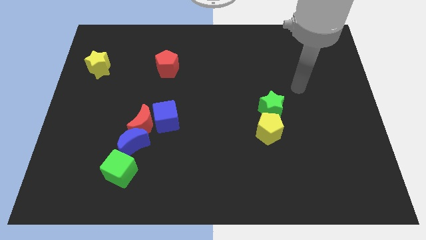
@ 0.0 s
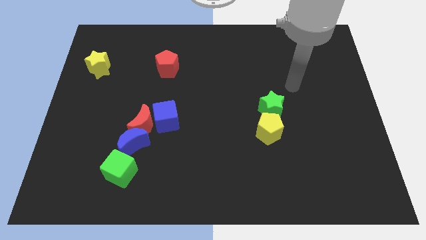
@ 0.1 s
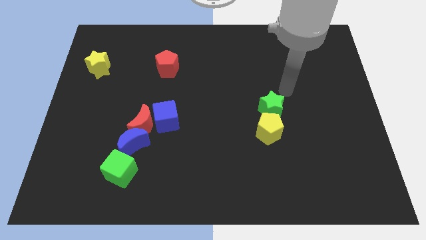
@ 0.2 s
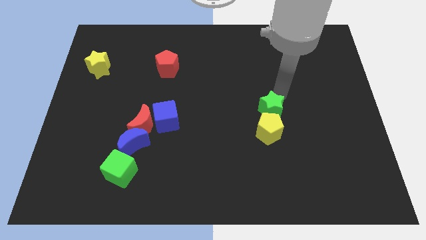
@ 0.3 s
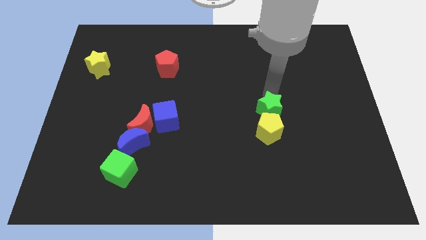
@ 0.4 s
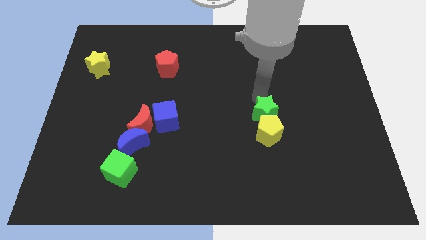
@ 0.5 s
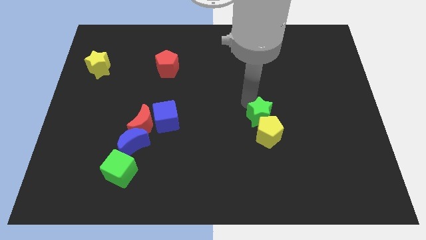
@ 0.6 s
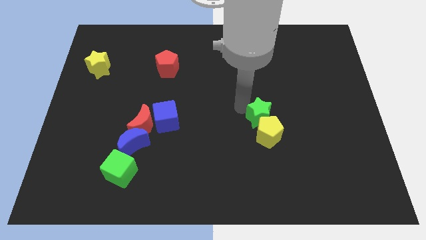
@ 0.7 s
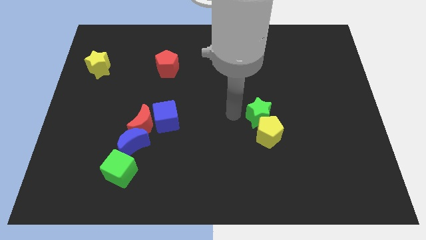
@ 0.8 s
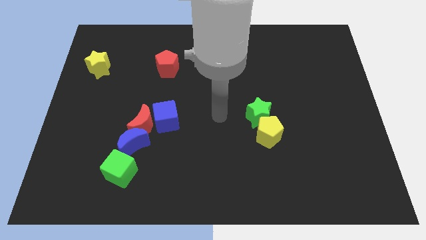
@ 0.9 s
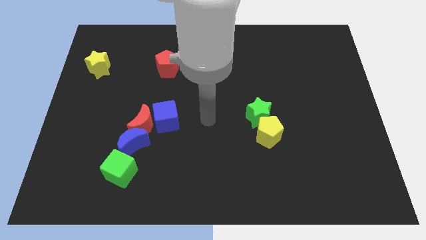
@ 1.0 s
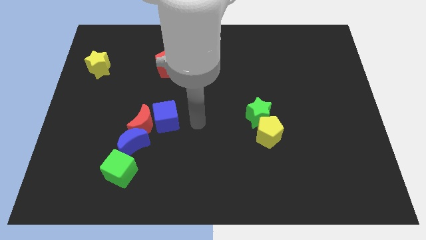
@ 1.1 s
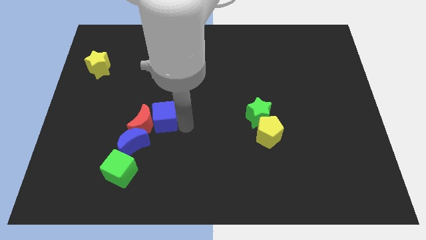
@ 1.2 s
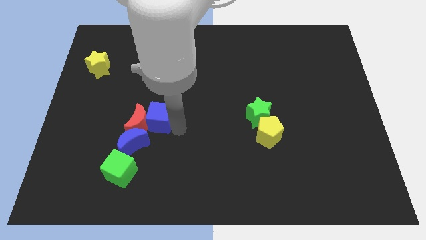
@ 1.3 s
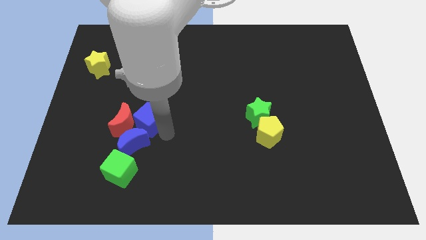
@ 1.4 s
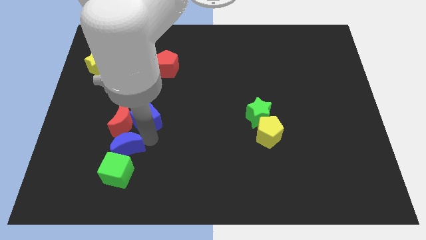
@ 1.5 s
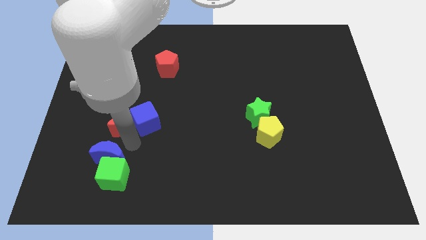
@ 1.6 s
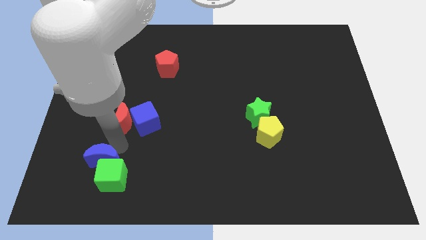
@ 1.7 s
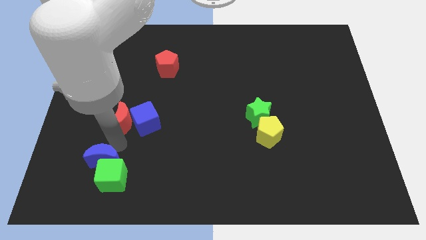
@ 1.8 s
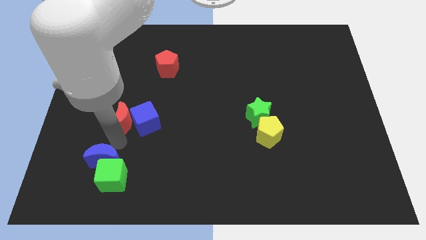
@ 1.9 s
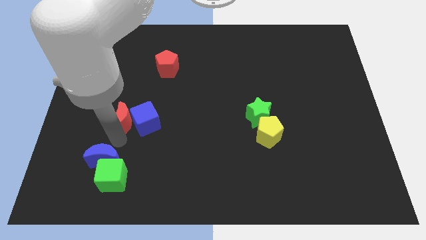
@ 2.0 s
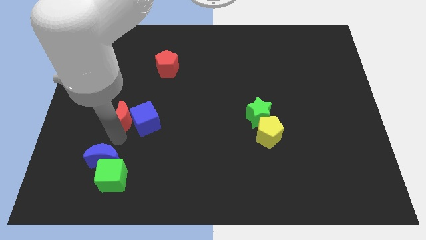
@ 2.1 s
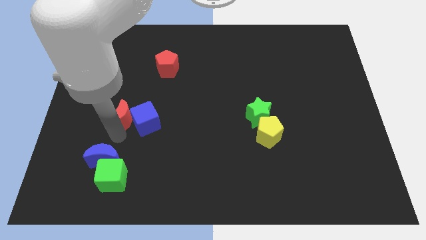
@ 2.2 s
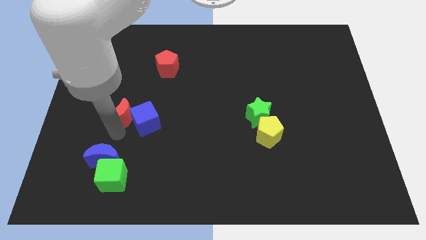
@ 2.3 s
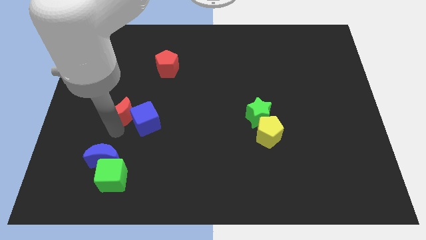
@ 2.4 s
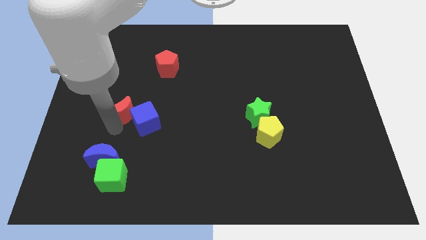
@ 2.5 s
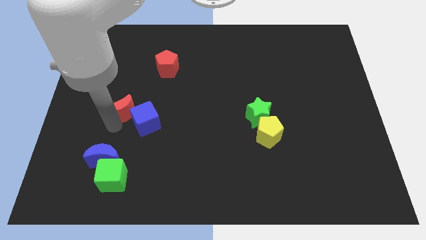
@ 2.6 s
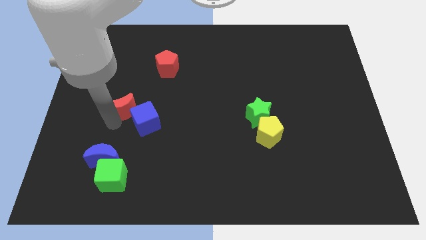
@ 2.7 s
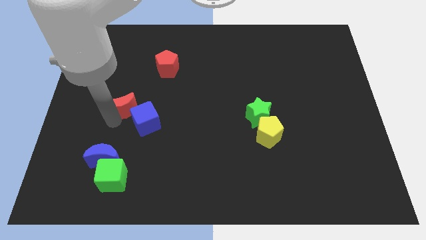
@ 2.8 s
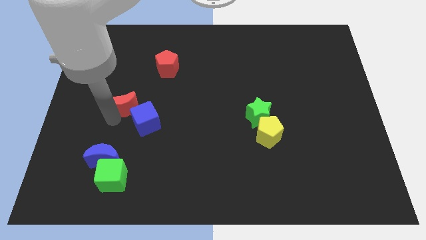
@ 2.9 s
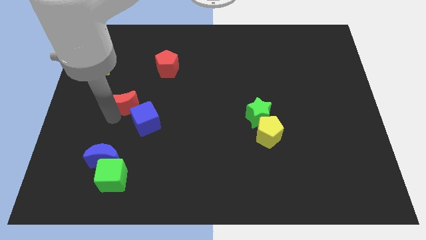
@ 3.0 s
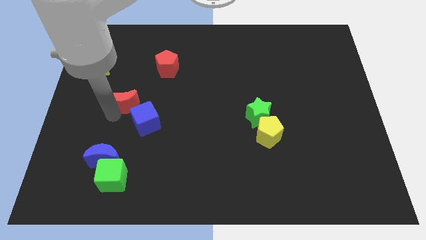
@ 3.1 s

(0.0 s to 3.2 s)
move the red moon away from the blue moon and blue cube

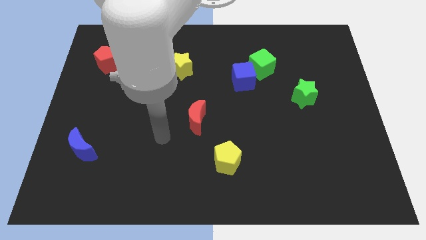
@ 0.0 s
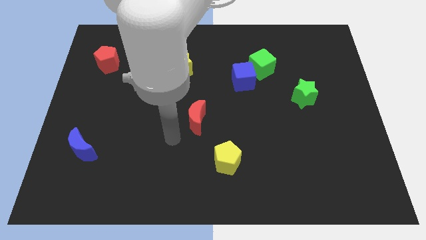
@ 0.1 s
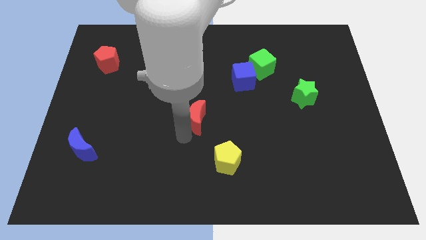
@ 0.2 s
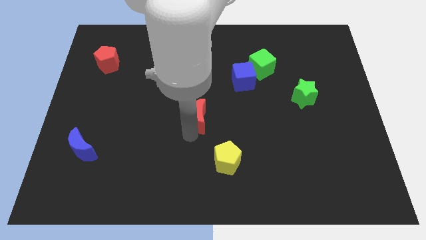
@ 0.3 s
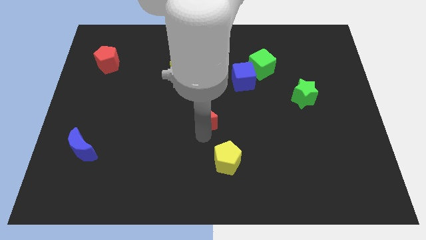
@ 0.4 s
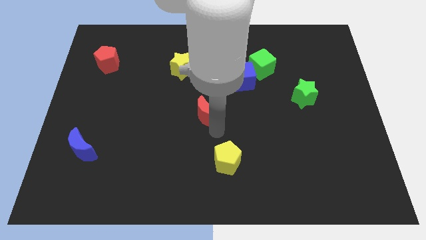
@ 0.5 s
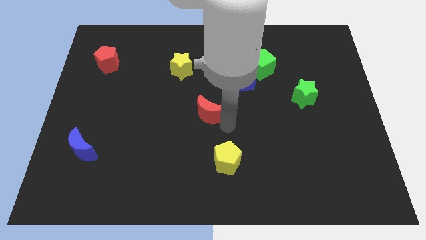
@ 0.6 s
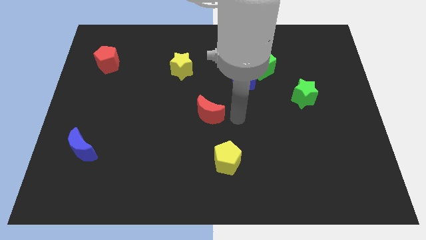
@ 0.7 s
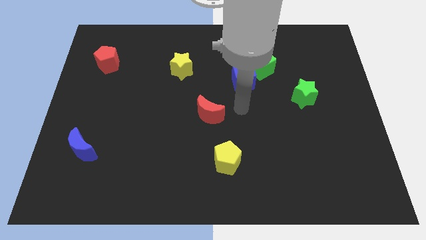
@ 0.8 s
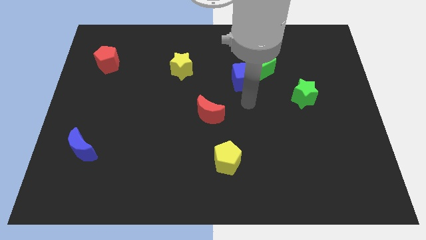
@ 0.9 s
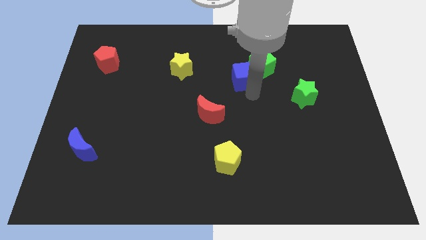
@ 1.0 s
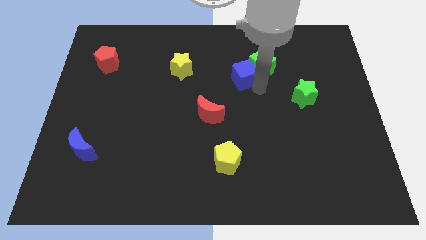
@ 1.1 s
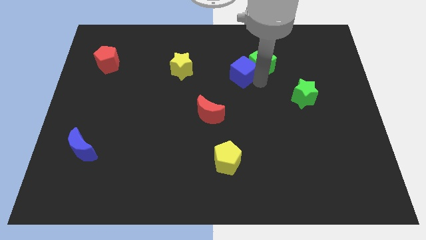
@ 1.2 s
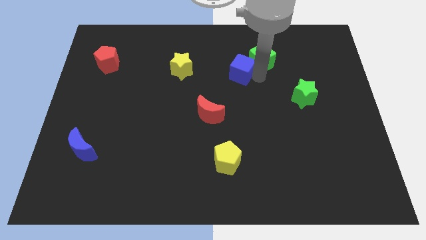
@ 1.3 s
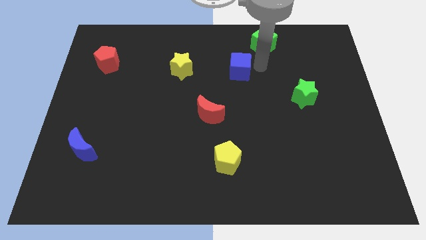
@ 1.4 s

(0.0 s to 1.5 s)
pull the blue cube apart from the green cube

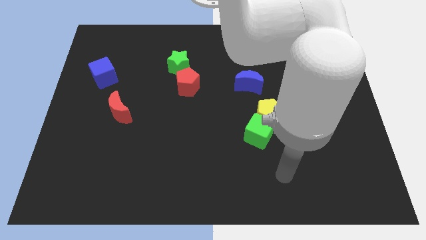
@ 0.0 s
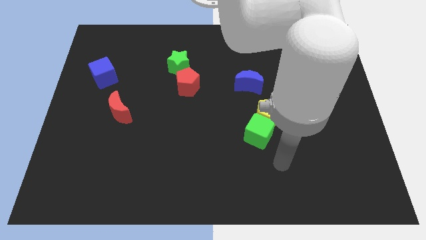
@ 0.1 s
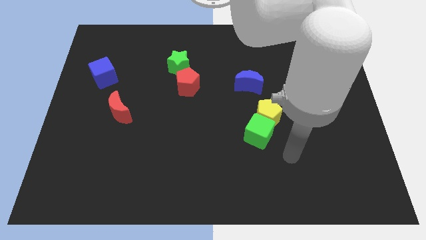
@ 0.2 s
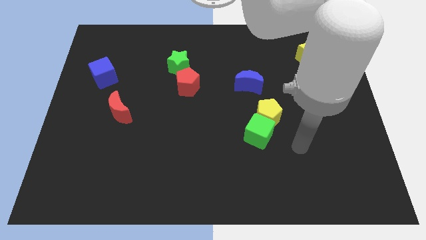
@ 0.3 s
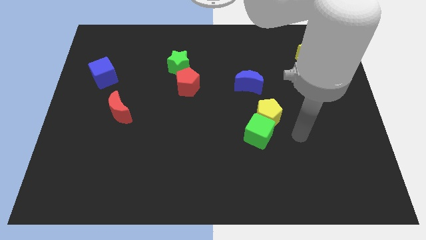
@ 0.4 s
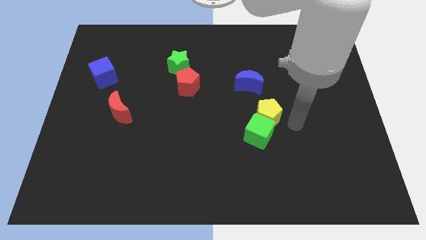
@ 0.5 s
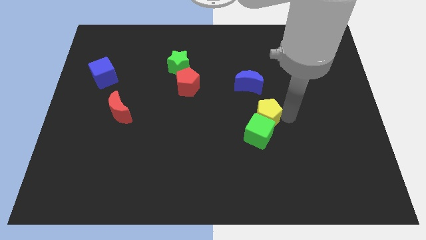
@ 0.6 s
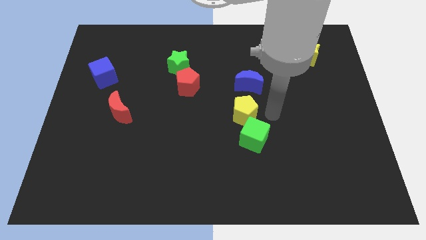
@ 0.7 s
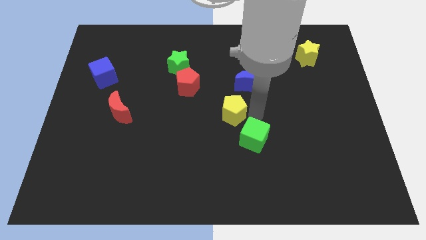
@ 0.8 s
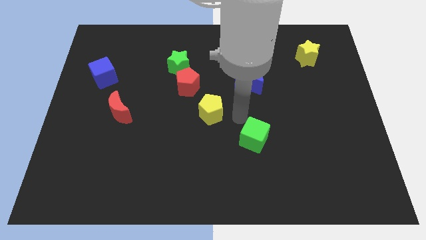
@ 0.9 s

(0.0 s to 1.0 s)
move the green cube away from the yellow pentagon

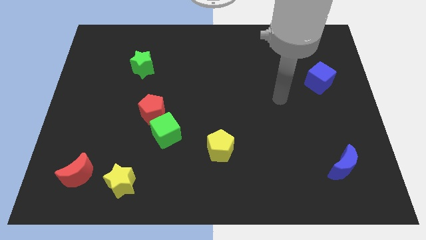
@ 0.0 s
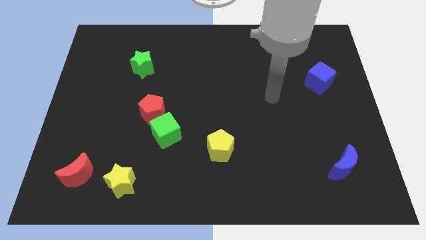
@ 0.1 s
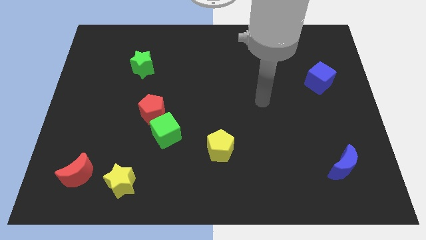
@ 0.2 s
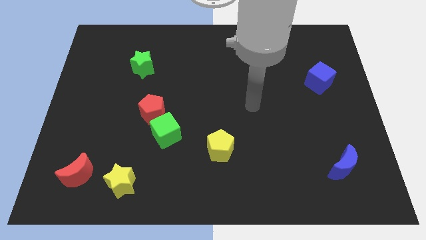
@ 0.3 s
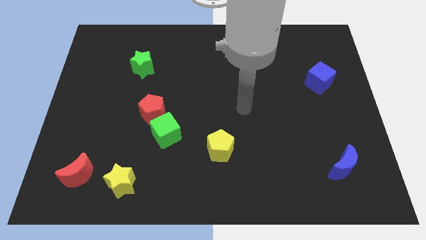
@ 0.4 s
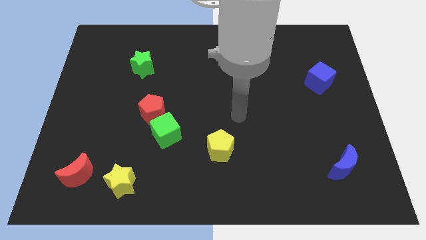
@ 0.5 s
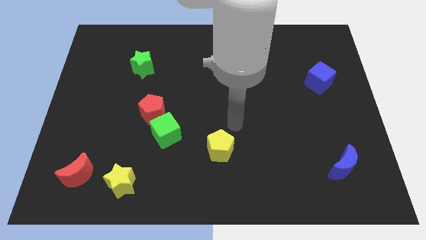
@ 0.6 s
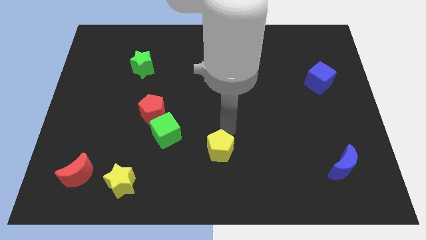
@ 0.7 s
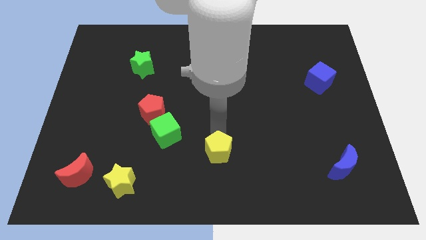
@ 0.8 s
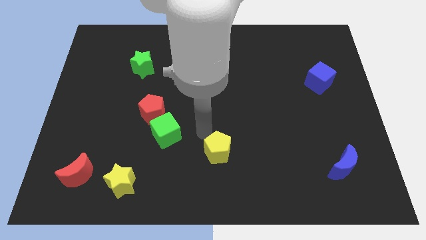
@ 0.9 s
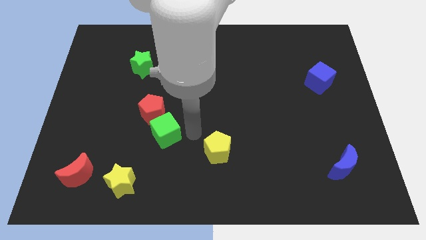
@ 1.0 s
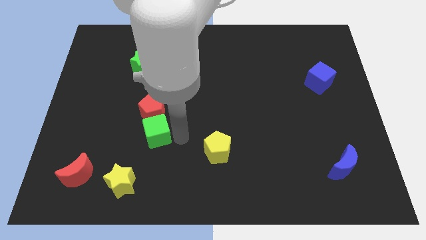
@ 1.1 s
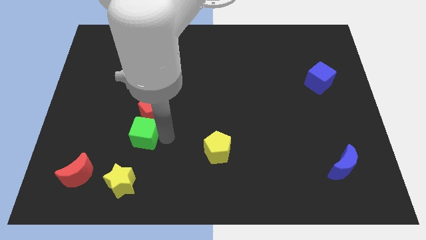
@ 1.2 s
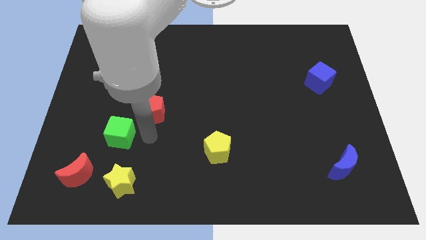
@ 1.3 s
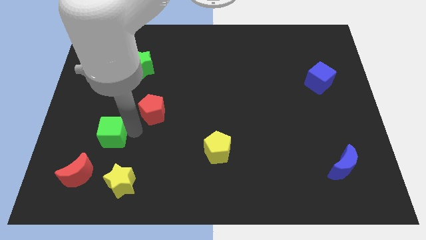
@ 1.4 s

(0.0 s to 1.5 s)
pull the red pentagon apart from the green cube

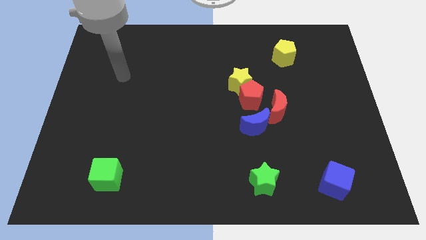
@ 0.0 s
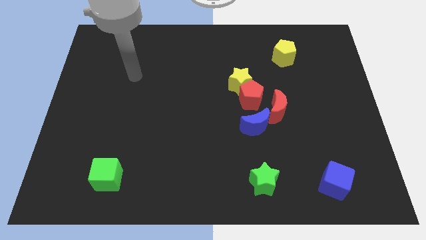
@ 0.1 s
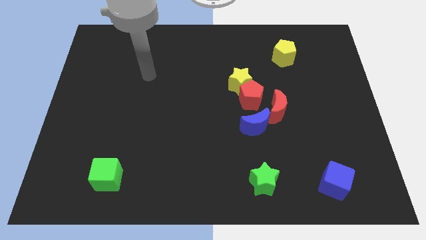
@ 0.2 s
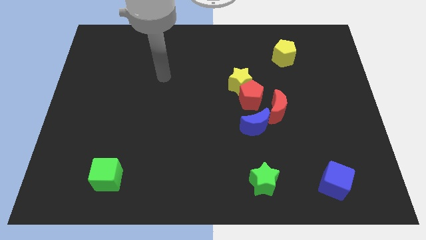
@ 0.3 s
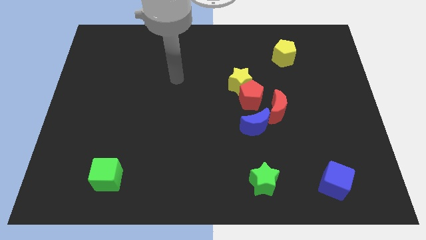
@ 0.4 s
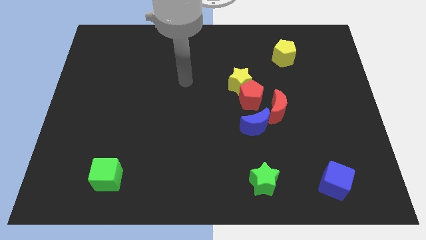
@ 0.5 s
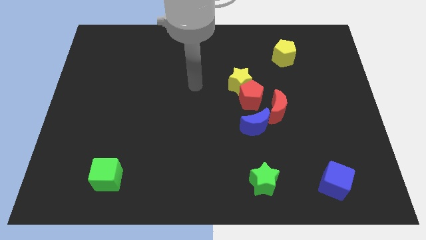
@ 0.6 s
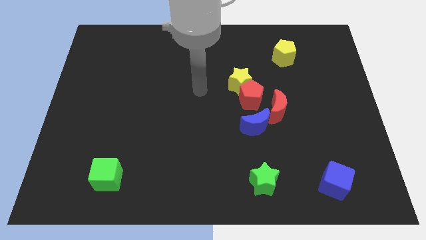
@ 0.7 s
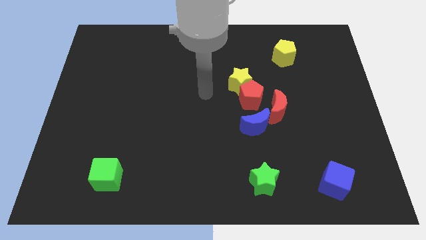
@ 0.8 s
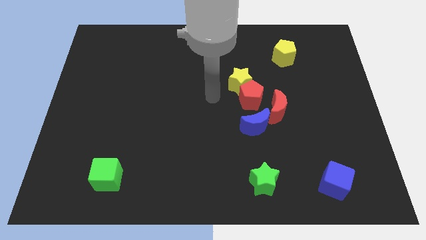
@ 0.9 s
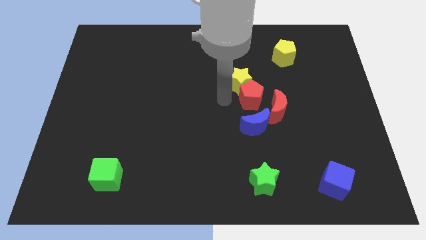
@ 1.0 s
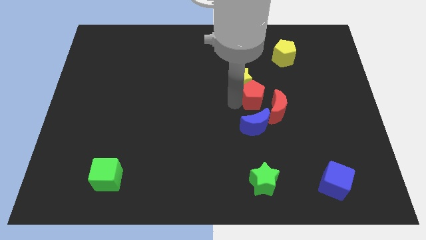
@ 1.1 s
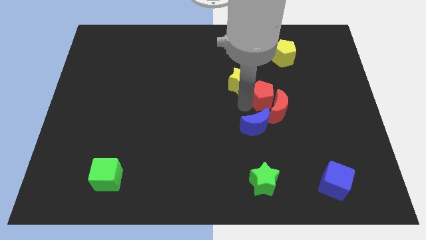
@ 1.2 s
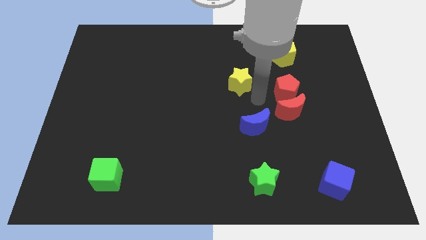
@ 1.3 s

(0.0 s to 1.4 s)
move the yellow star away from the red pentagon

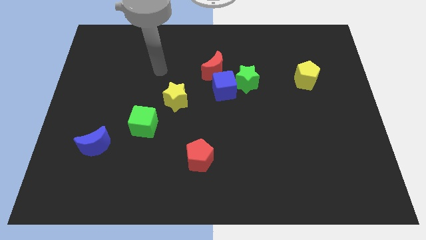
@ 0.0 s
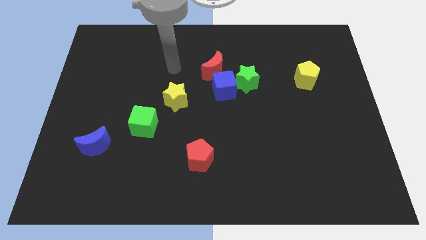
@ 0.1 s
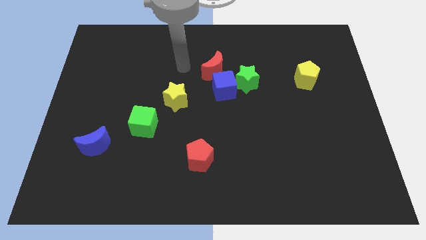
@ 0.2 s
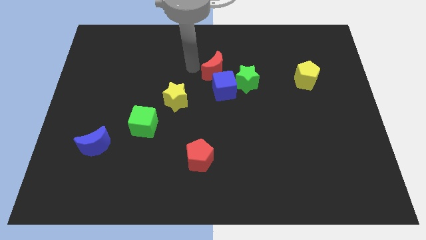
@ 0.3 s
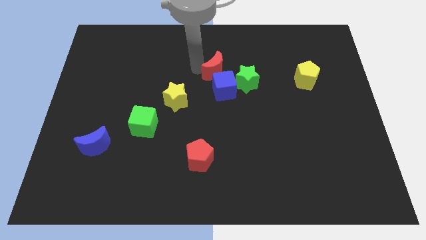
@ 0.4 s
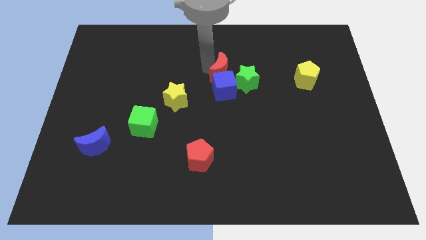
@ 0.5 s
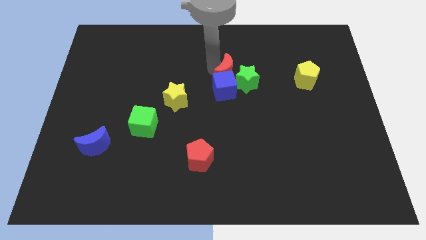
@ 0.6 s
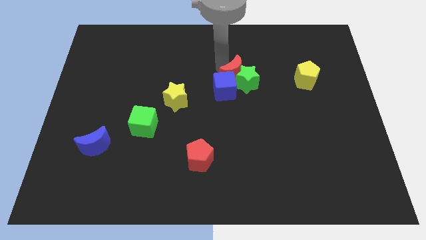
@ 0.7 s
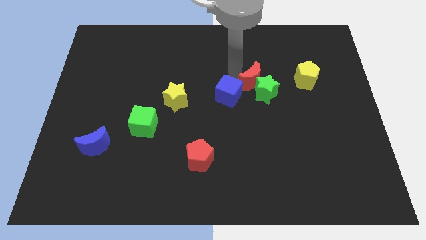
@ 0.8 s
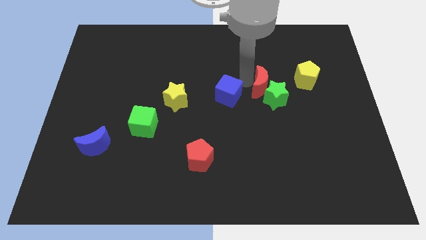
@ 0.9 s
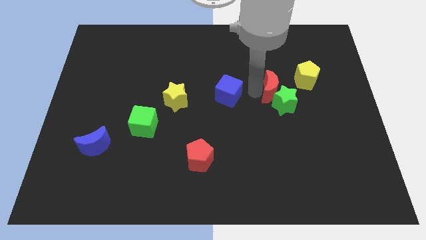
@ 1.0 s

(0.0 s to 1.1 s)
move the blue cube away from the green star and red moon
